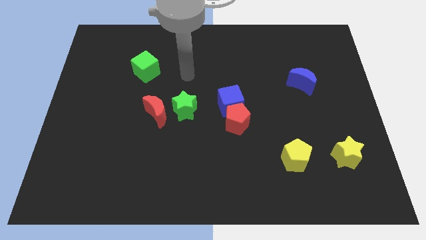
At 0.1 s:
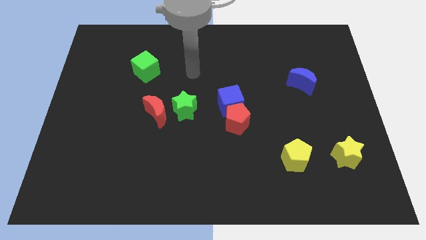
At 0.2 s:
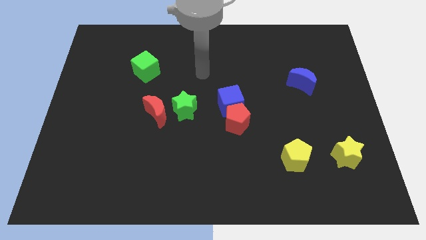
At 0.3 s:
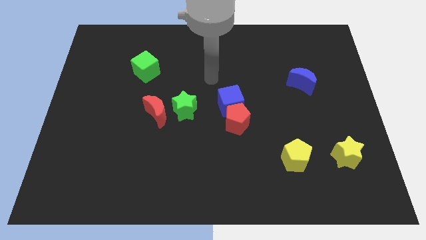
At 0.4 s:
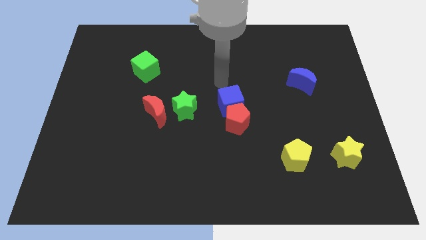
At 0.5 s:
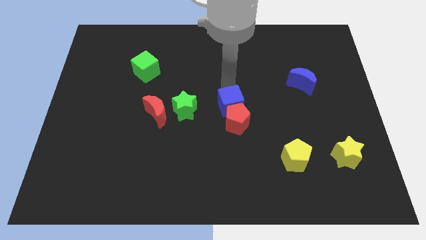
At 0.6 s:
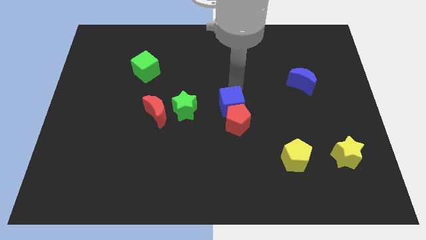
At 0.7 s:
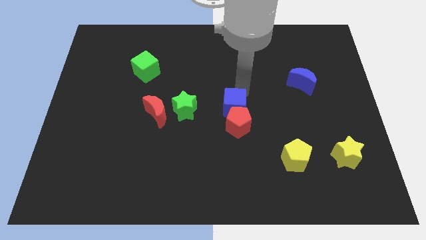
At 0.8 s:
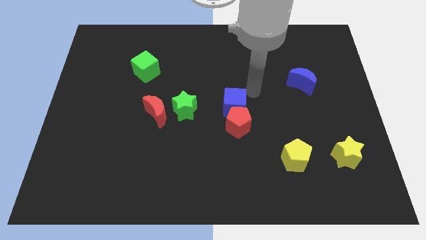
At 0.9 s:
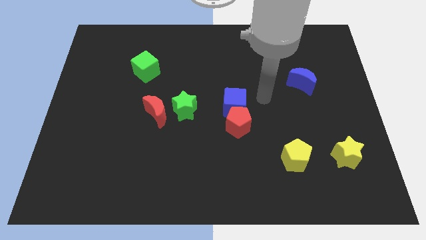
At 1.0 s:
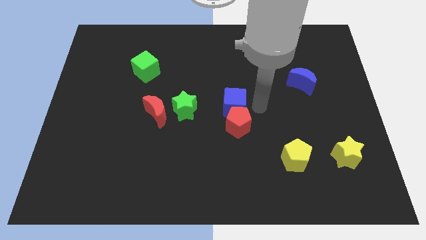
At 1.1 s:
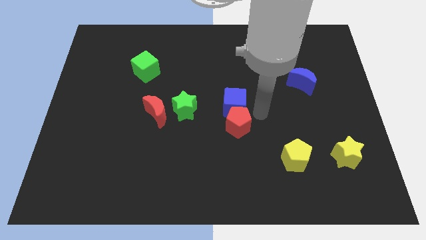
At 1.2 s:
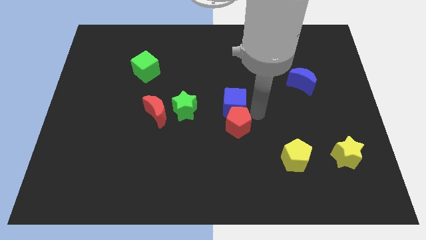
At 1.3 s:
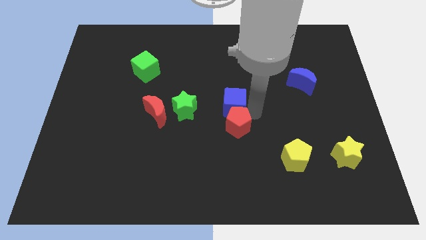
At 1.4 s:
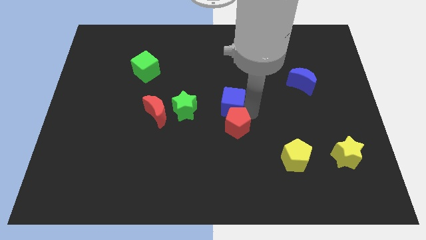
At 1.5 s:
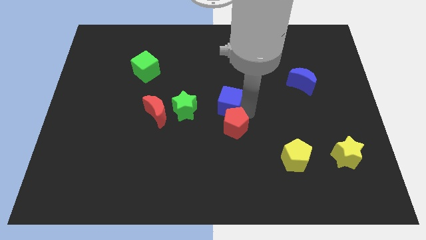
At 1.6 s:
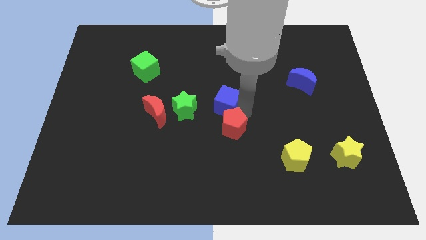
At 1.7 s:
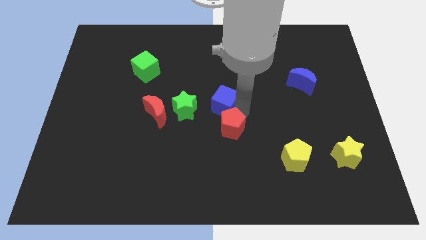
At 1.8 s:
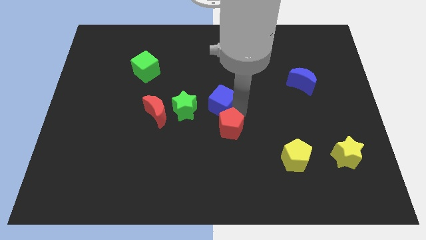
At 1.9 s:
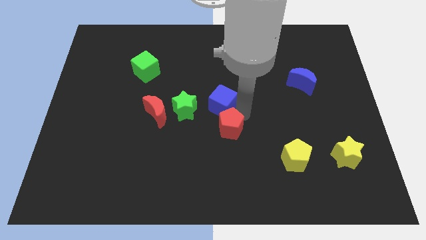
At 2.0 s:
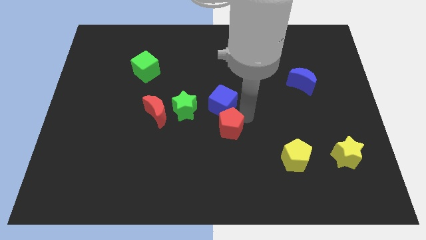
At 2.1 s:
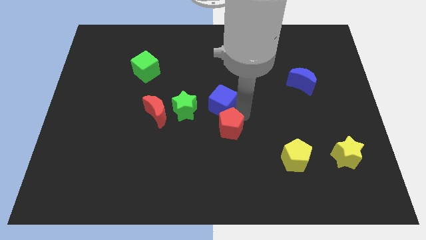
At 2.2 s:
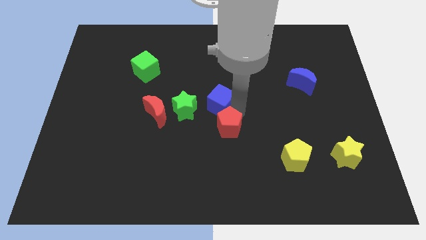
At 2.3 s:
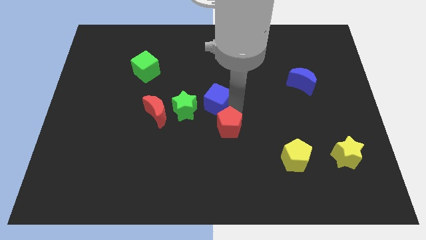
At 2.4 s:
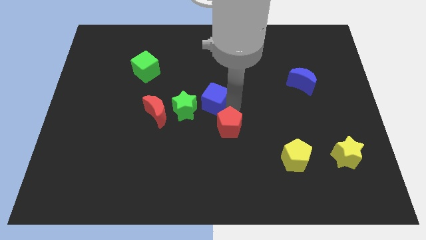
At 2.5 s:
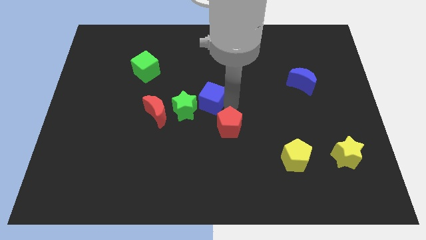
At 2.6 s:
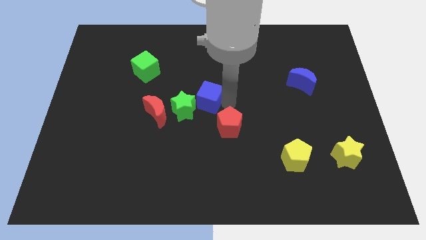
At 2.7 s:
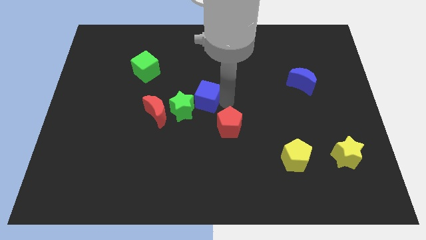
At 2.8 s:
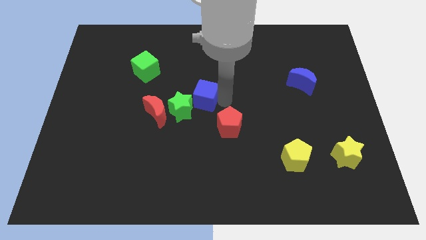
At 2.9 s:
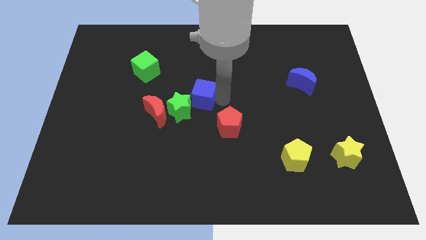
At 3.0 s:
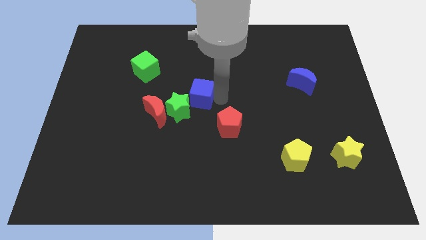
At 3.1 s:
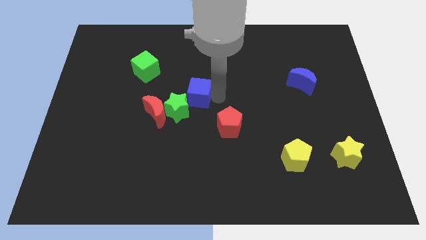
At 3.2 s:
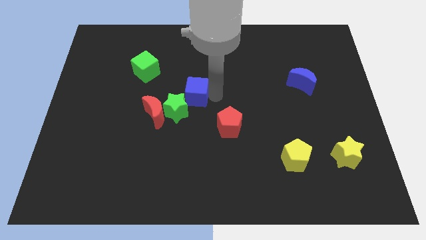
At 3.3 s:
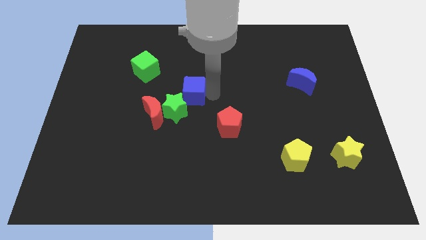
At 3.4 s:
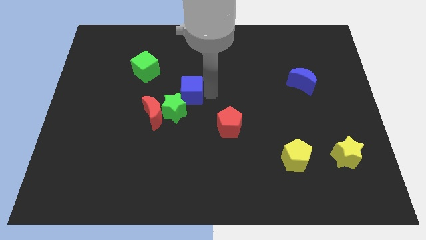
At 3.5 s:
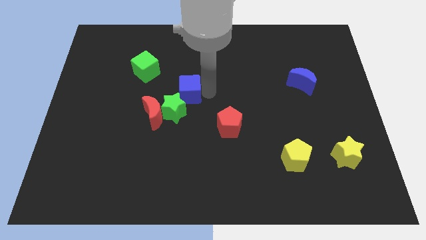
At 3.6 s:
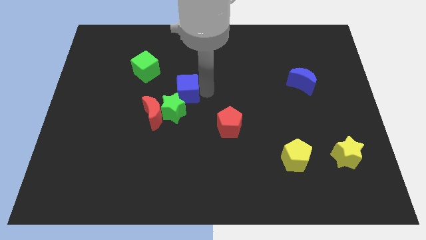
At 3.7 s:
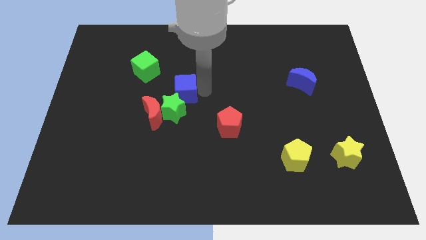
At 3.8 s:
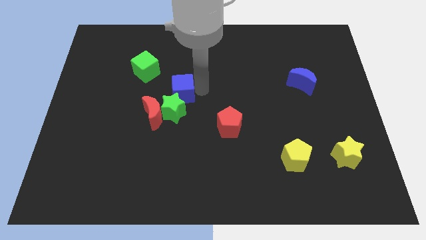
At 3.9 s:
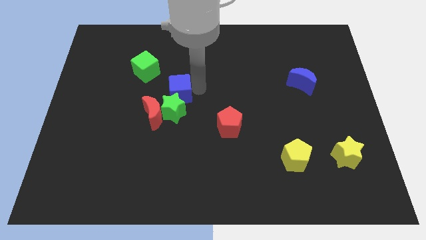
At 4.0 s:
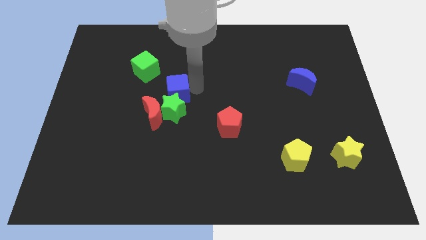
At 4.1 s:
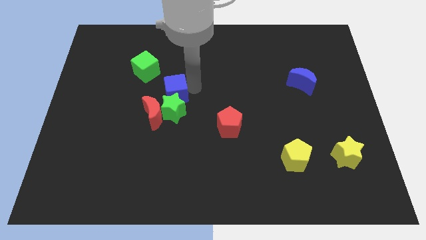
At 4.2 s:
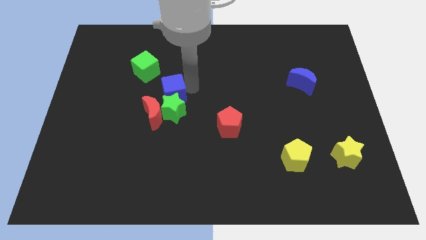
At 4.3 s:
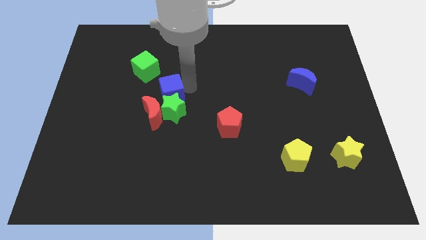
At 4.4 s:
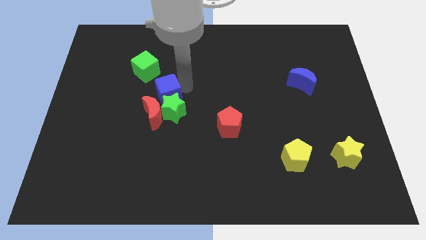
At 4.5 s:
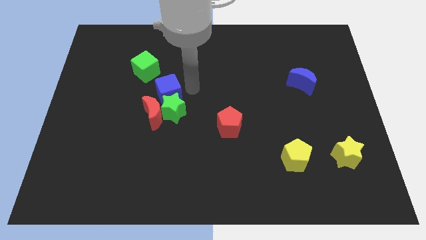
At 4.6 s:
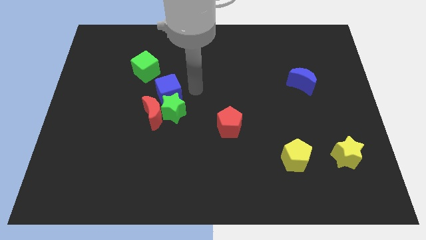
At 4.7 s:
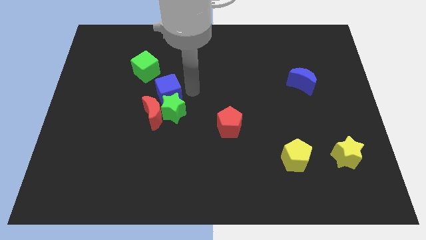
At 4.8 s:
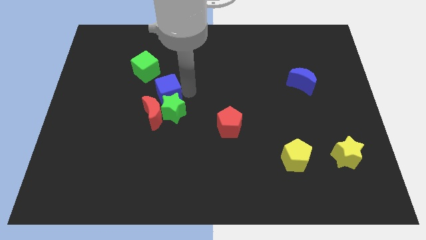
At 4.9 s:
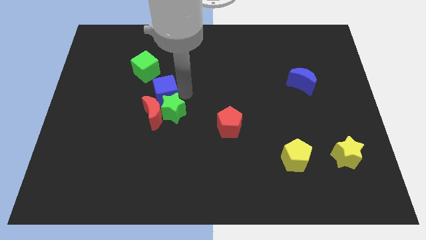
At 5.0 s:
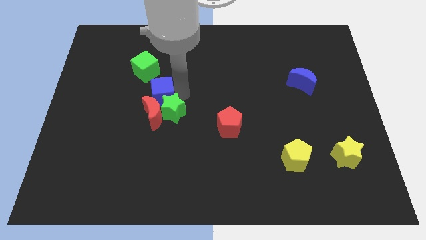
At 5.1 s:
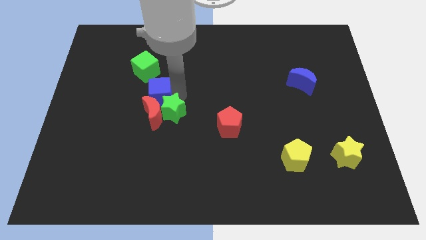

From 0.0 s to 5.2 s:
push the blue cube to the top left of the red moon

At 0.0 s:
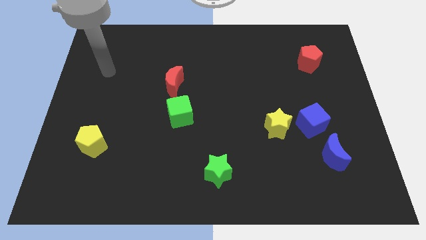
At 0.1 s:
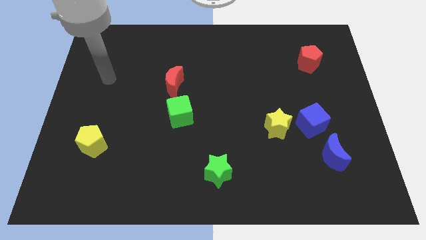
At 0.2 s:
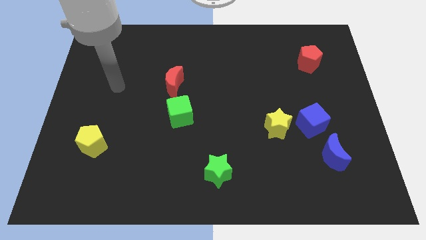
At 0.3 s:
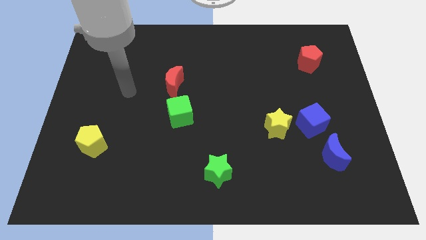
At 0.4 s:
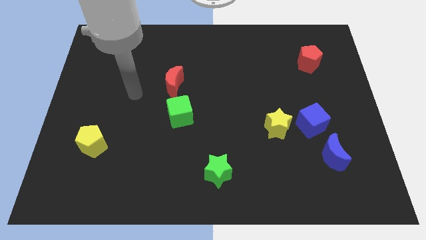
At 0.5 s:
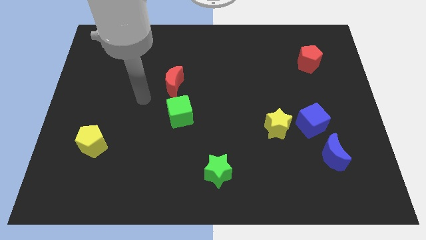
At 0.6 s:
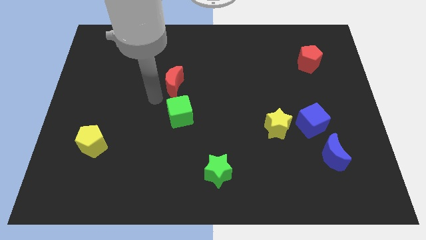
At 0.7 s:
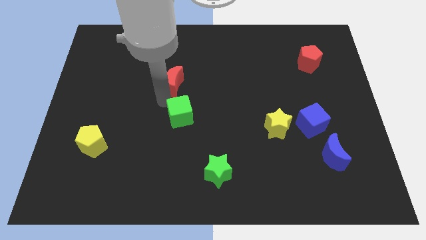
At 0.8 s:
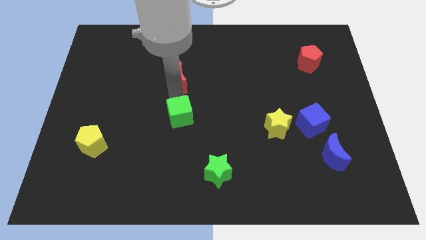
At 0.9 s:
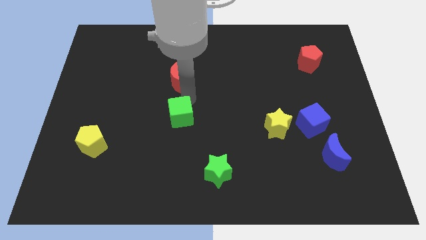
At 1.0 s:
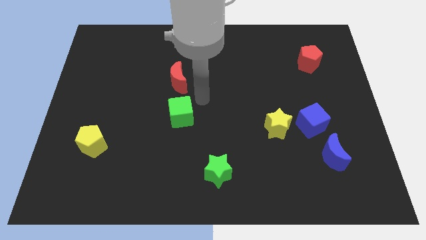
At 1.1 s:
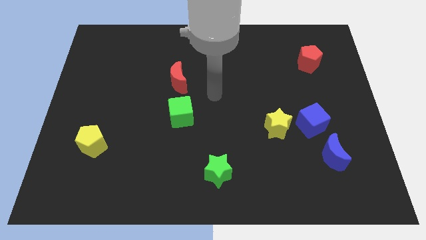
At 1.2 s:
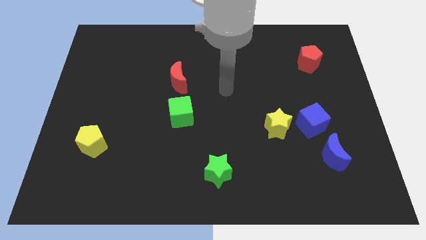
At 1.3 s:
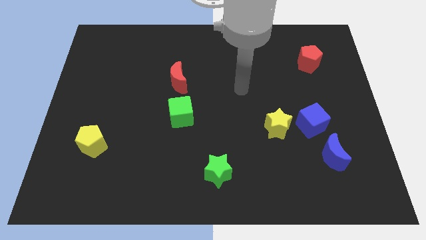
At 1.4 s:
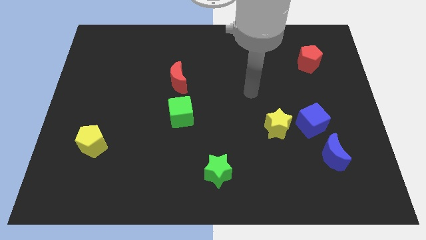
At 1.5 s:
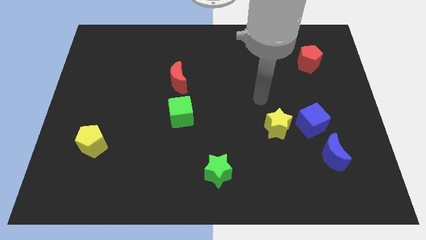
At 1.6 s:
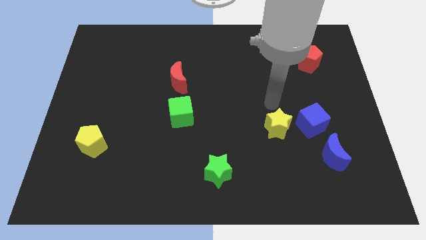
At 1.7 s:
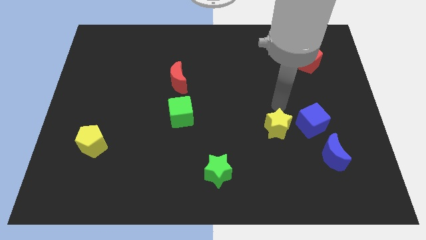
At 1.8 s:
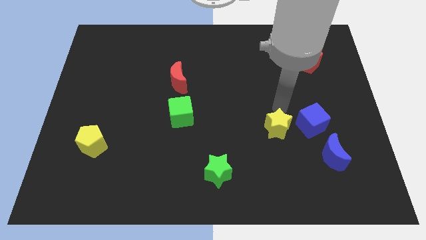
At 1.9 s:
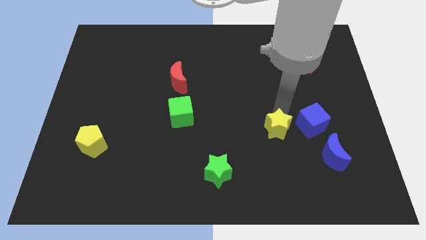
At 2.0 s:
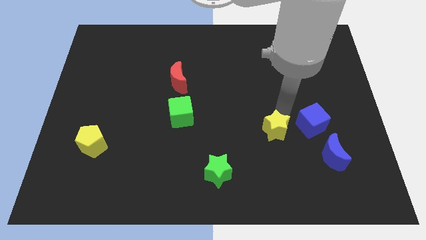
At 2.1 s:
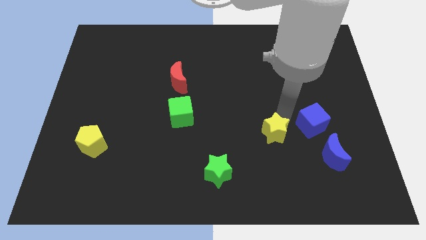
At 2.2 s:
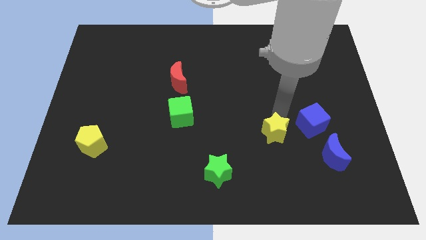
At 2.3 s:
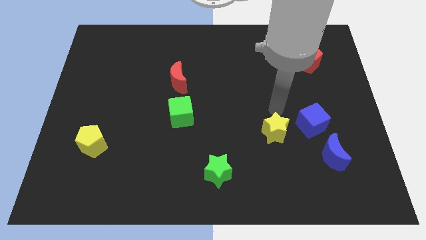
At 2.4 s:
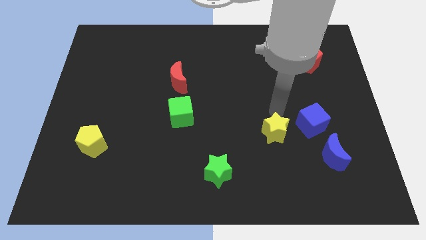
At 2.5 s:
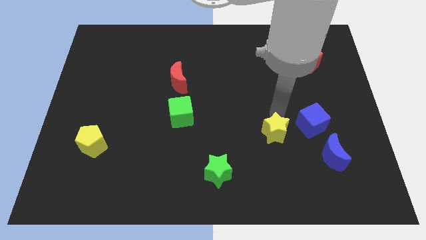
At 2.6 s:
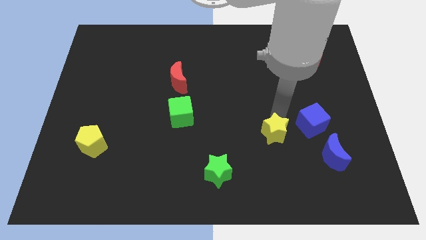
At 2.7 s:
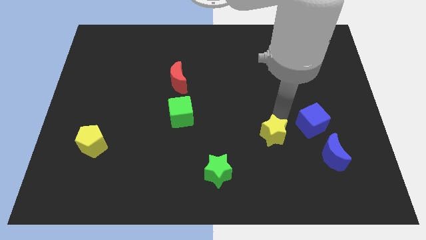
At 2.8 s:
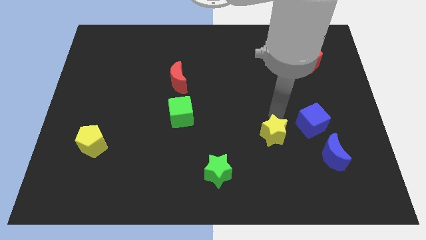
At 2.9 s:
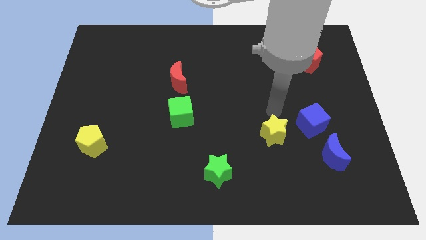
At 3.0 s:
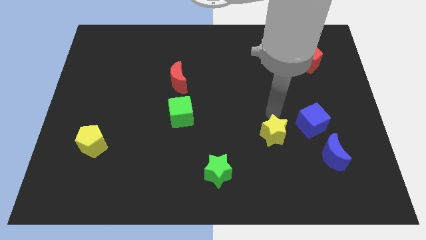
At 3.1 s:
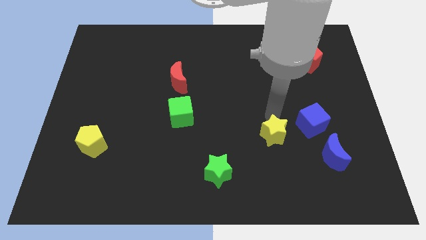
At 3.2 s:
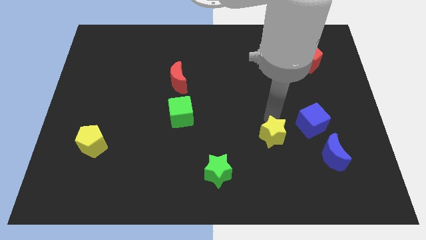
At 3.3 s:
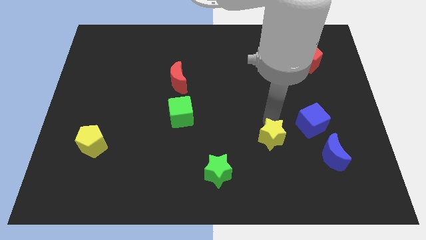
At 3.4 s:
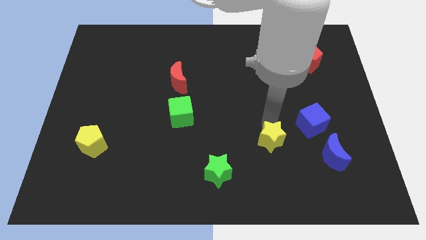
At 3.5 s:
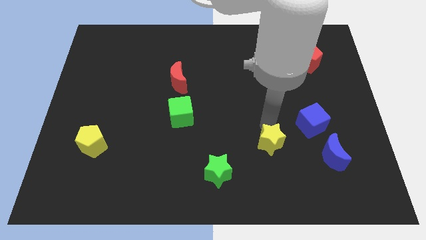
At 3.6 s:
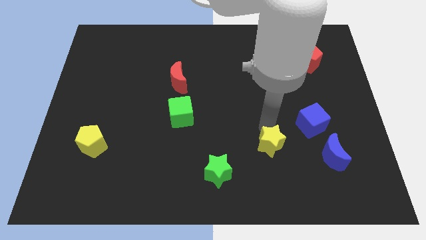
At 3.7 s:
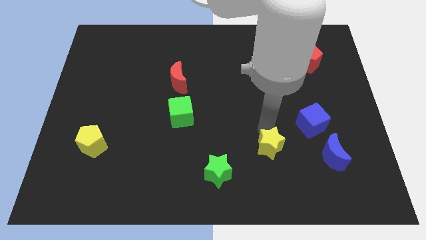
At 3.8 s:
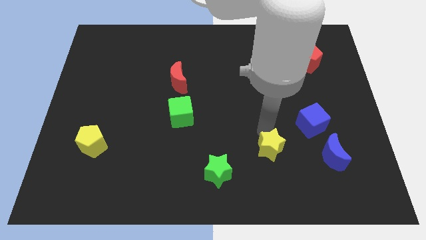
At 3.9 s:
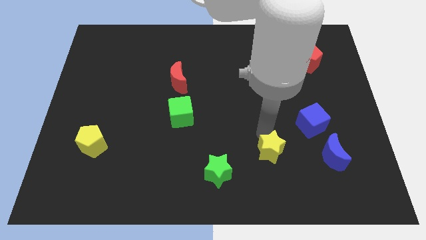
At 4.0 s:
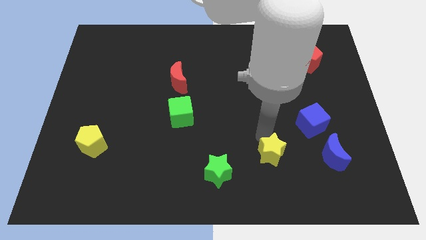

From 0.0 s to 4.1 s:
slide the yellow star to the right of the green star
